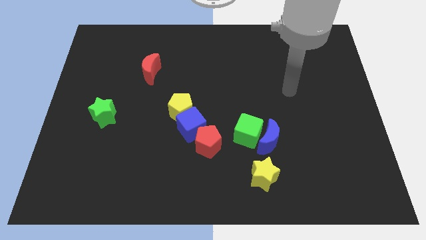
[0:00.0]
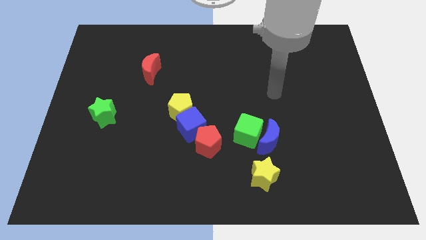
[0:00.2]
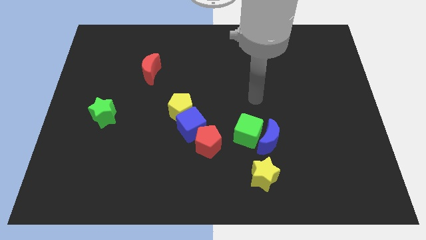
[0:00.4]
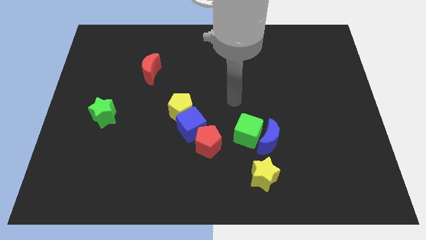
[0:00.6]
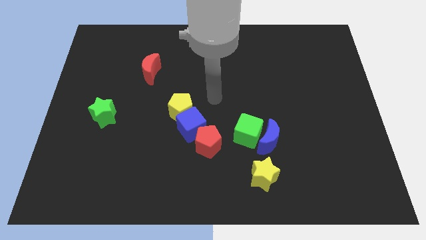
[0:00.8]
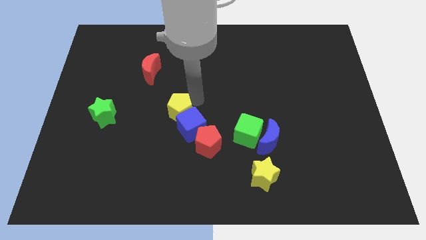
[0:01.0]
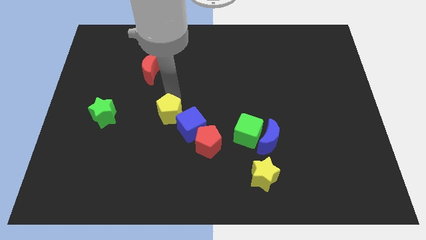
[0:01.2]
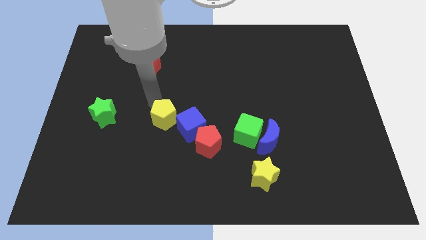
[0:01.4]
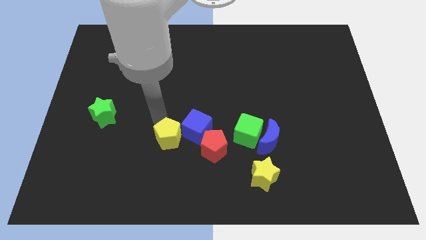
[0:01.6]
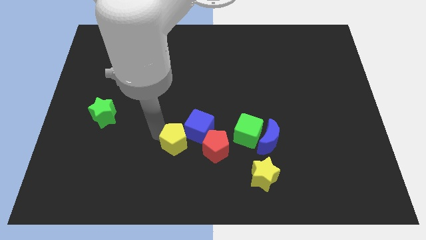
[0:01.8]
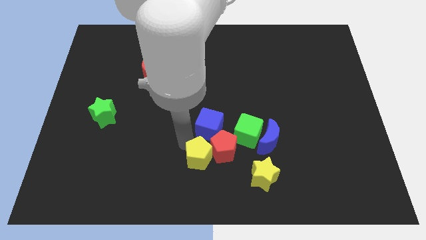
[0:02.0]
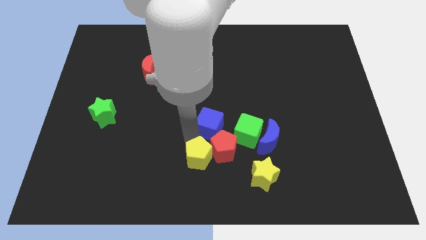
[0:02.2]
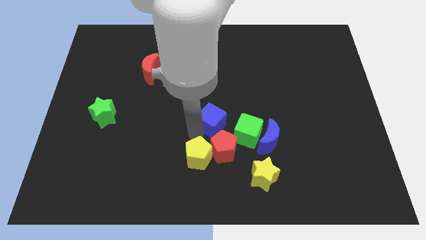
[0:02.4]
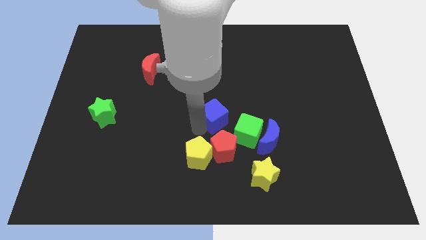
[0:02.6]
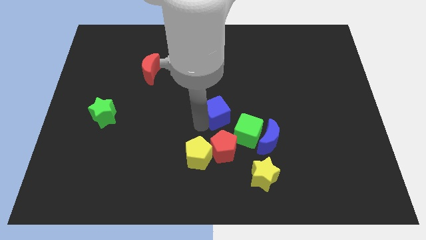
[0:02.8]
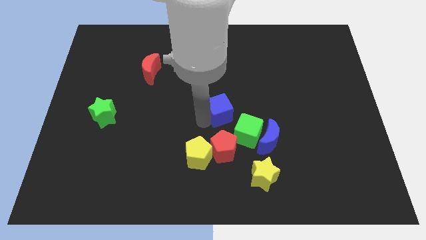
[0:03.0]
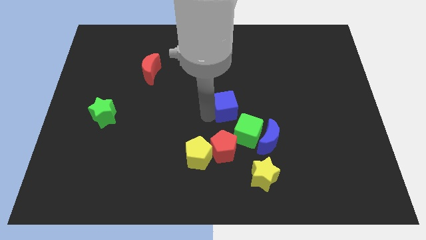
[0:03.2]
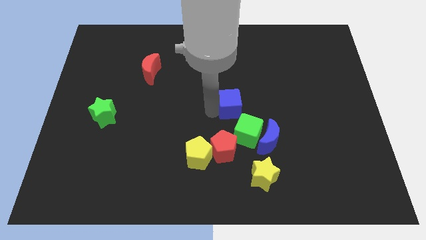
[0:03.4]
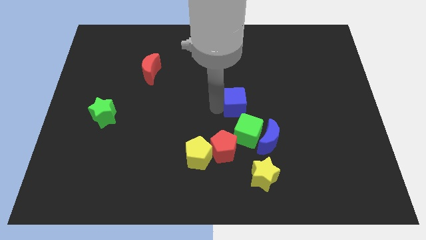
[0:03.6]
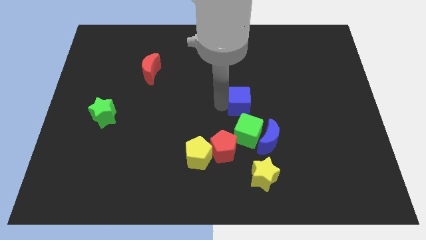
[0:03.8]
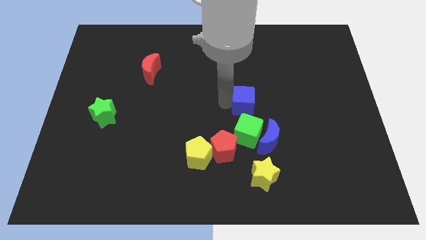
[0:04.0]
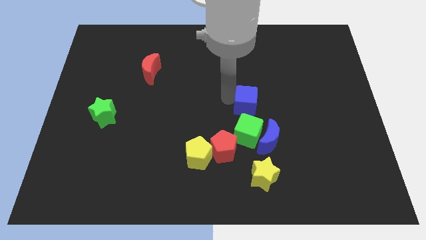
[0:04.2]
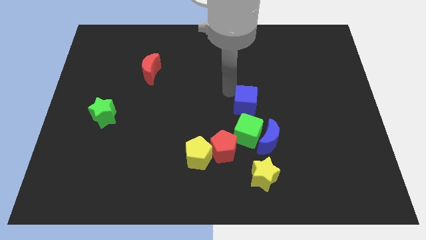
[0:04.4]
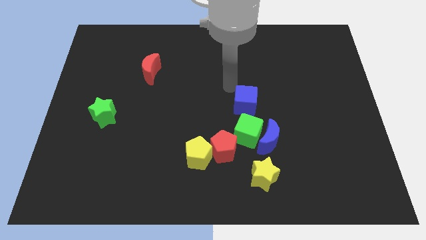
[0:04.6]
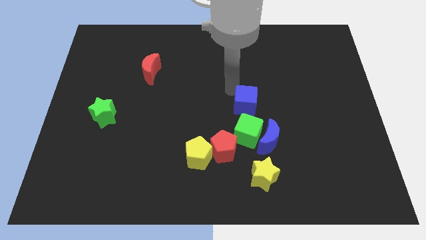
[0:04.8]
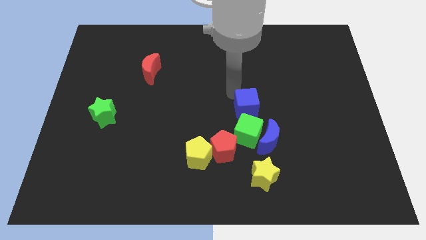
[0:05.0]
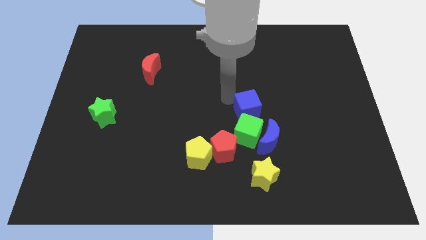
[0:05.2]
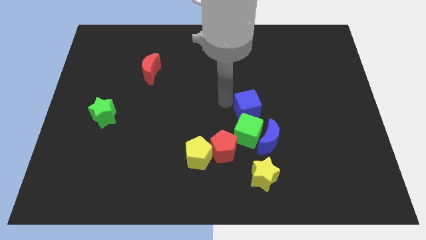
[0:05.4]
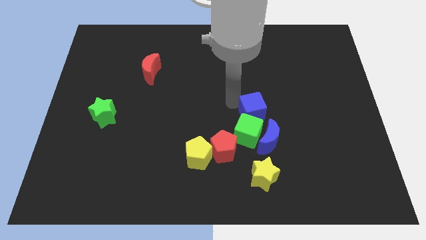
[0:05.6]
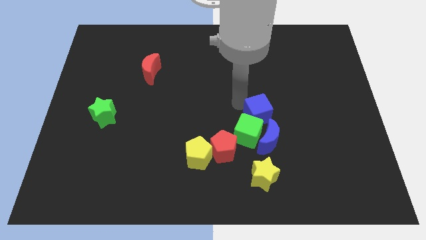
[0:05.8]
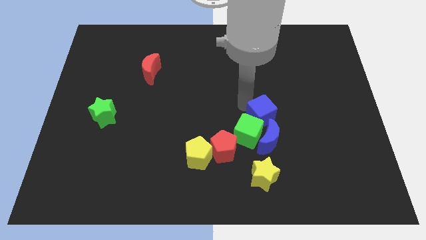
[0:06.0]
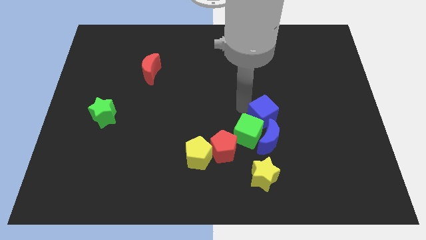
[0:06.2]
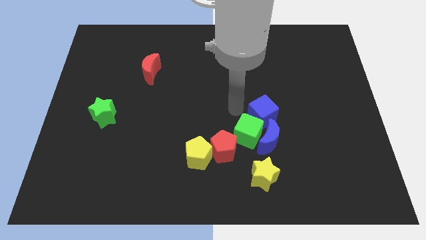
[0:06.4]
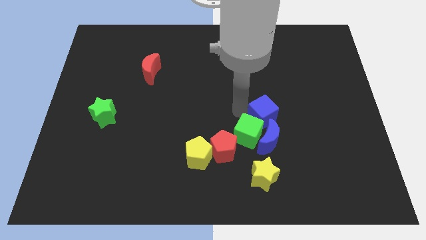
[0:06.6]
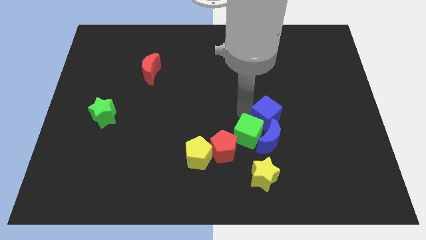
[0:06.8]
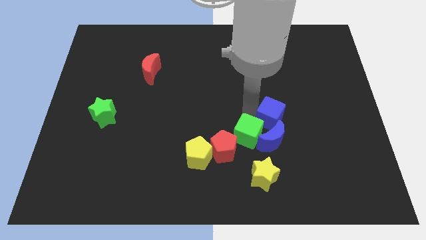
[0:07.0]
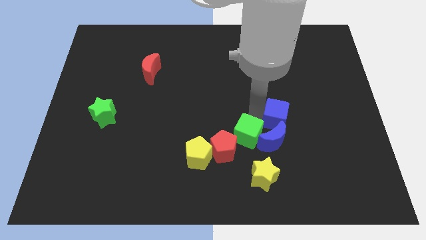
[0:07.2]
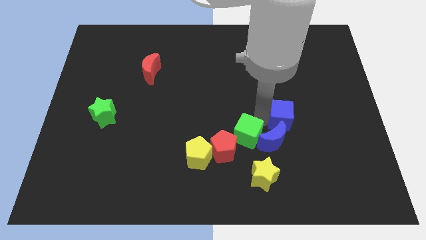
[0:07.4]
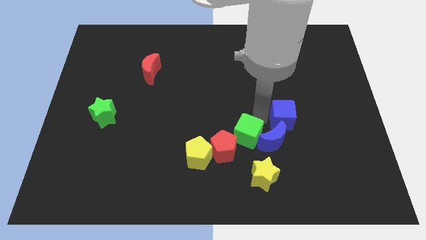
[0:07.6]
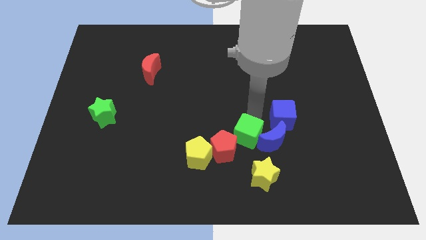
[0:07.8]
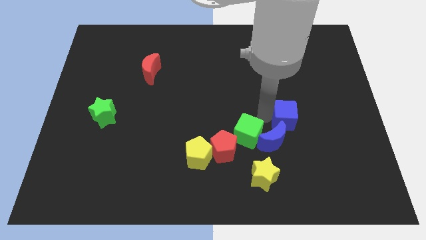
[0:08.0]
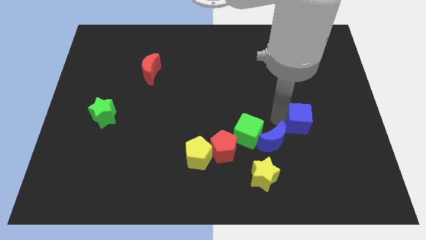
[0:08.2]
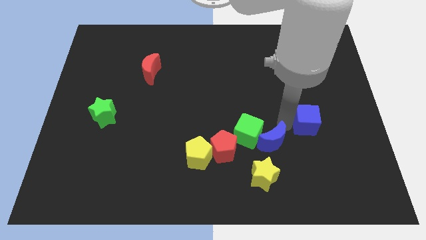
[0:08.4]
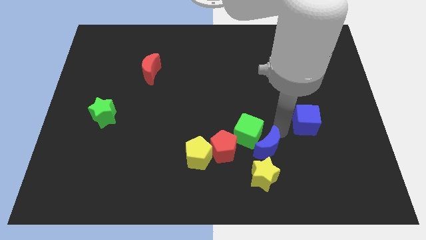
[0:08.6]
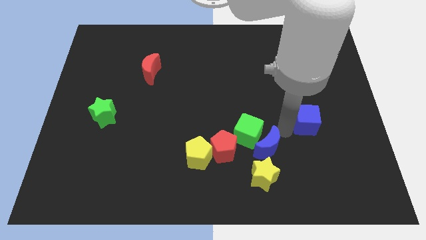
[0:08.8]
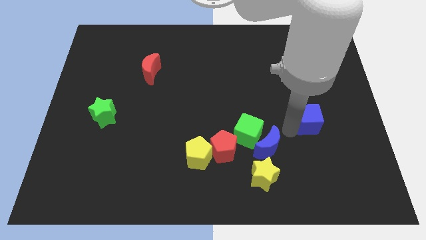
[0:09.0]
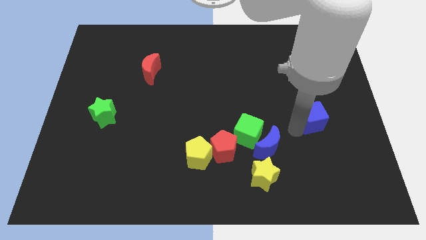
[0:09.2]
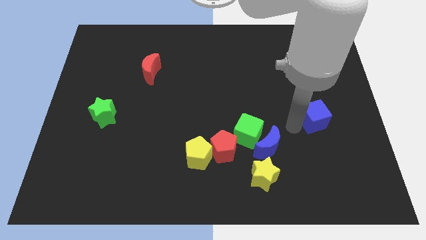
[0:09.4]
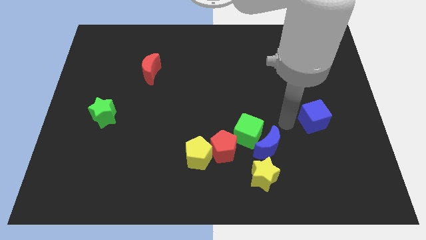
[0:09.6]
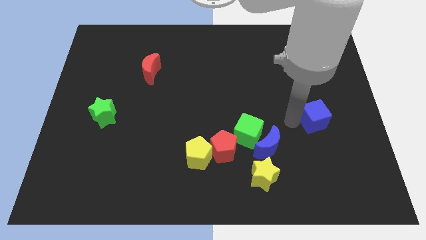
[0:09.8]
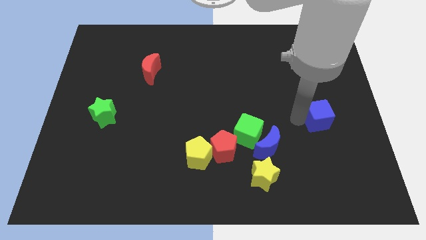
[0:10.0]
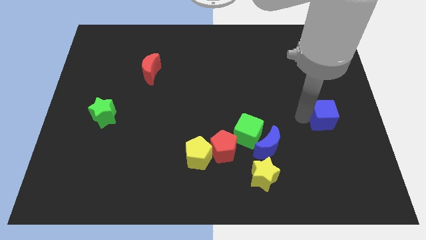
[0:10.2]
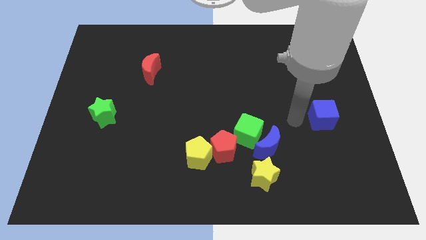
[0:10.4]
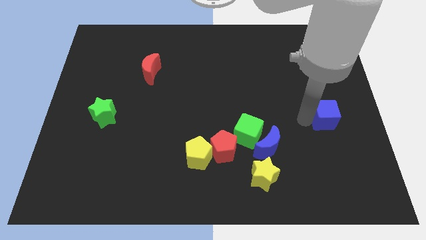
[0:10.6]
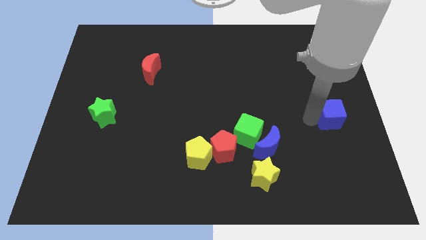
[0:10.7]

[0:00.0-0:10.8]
move the blue cube to the right side

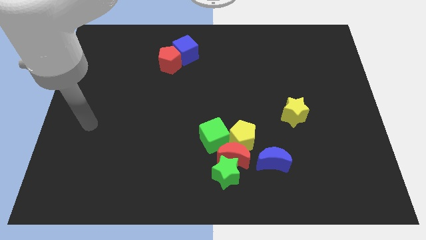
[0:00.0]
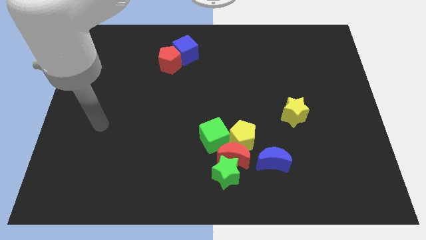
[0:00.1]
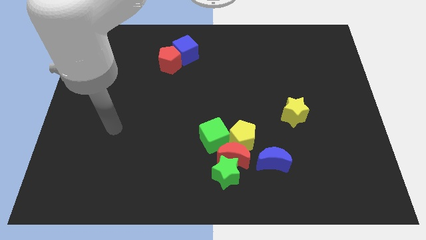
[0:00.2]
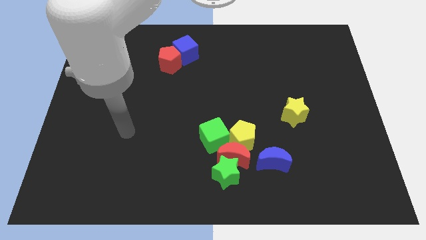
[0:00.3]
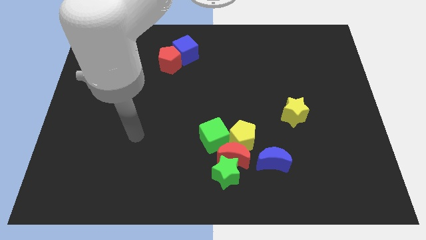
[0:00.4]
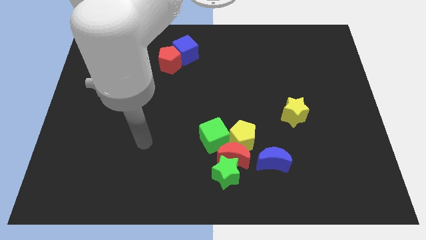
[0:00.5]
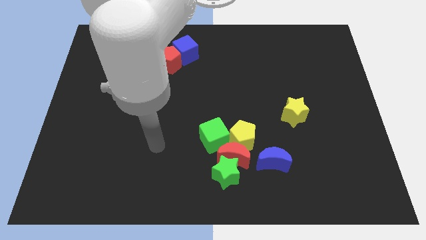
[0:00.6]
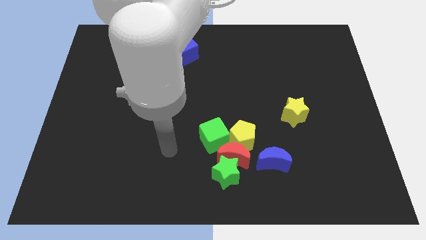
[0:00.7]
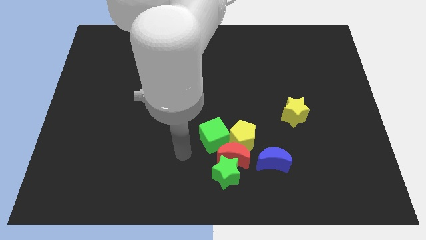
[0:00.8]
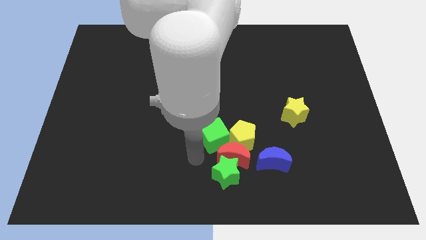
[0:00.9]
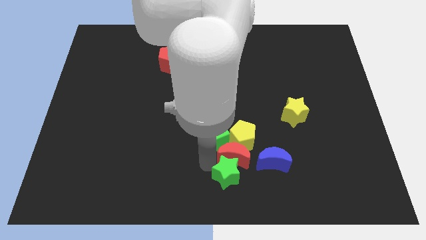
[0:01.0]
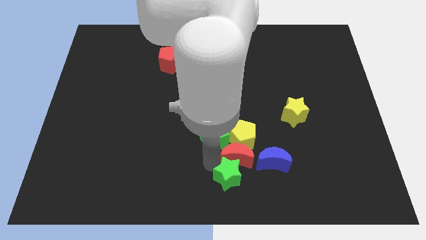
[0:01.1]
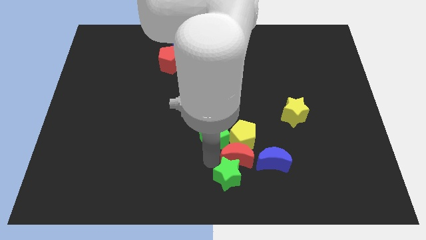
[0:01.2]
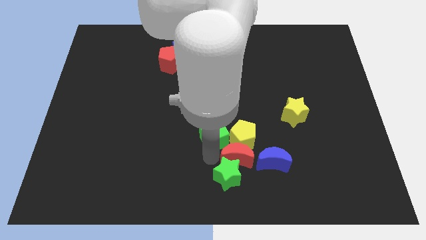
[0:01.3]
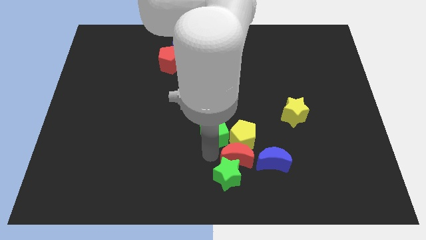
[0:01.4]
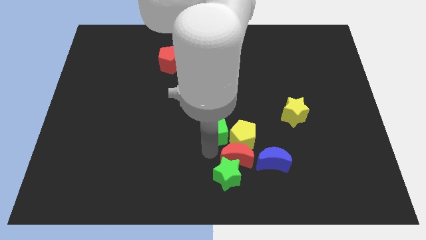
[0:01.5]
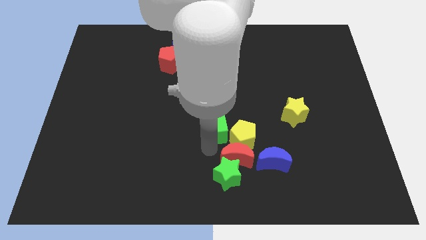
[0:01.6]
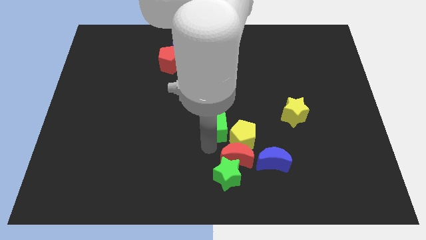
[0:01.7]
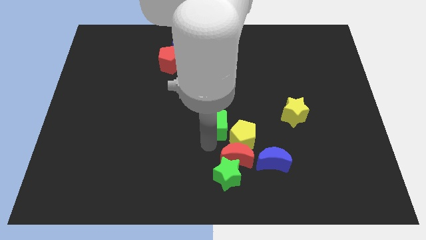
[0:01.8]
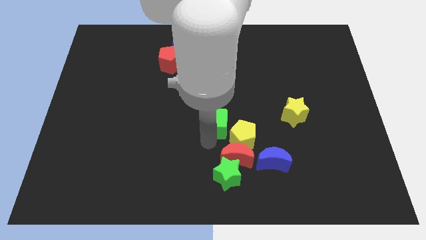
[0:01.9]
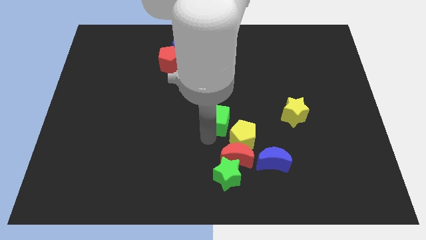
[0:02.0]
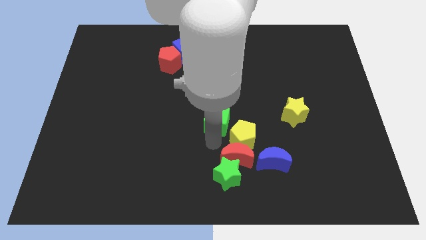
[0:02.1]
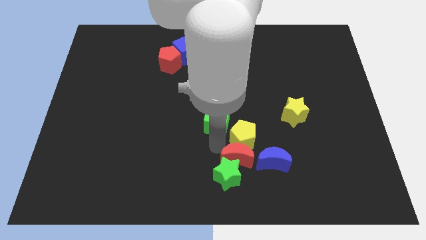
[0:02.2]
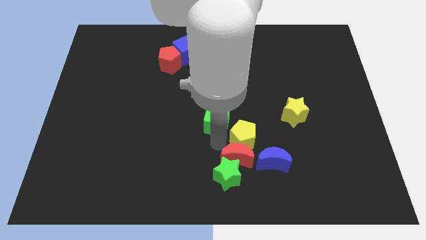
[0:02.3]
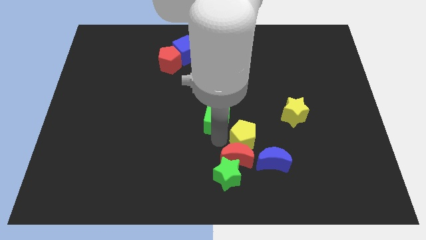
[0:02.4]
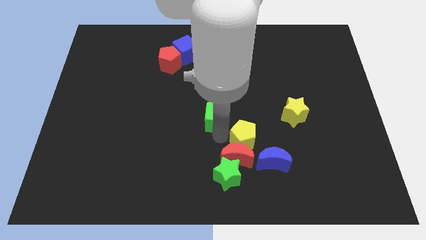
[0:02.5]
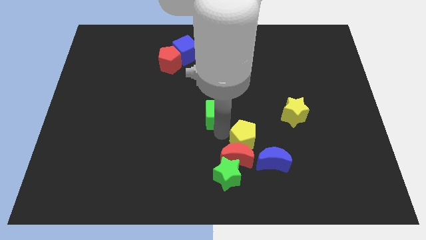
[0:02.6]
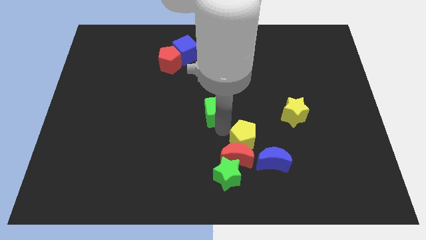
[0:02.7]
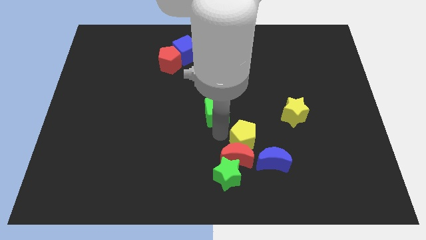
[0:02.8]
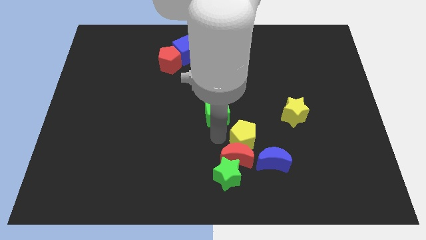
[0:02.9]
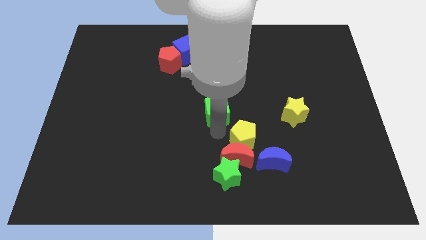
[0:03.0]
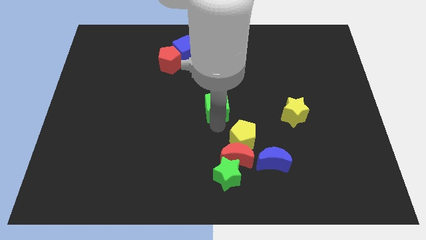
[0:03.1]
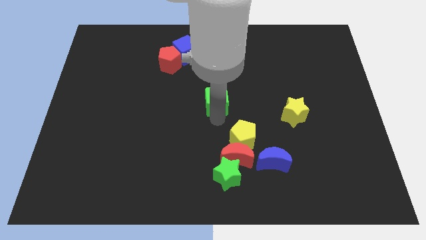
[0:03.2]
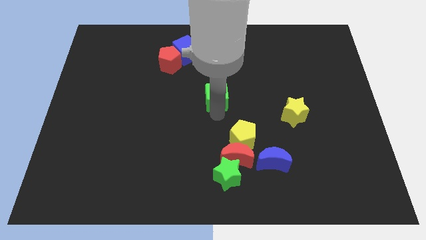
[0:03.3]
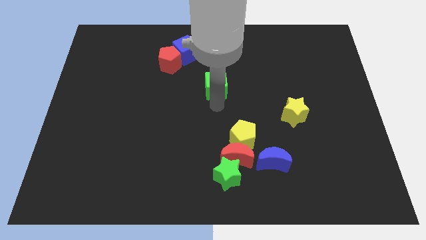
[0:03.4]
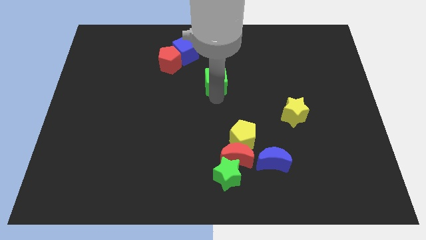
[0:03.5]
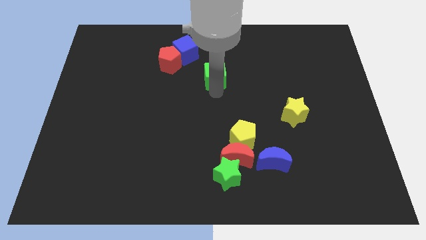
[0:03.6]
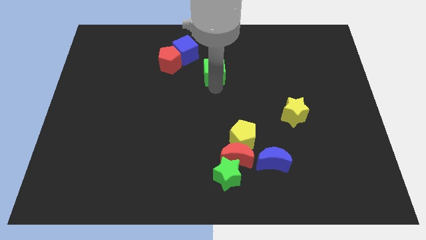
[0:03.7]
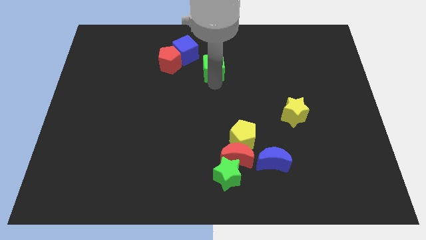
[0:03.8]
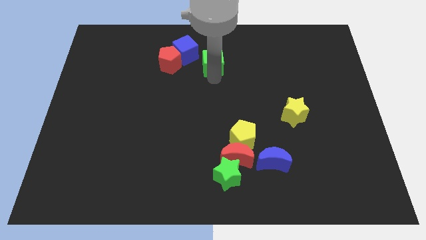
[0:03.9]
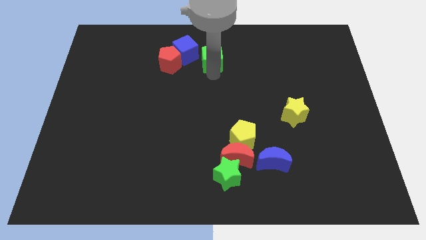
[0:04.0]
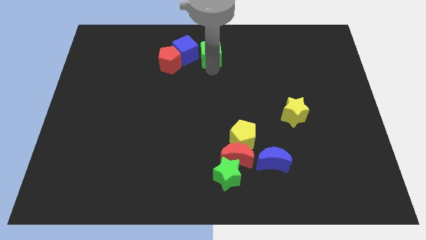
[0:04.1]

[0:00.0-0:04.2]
put the green cube to the top
